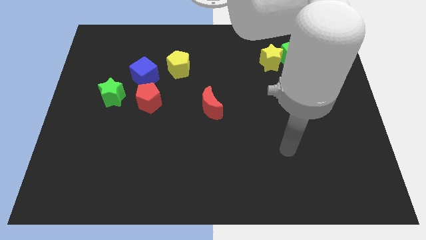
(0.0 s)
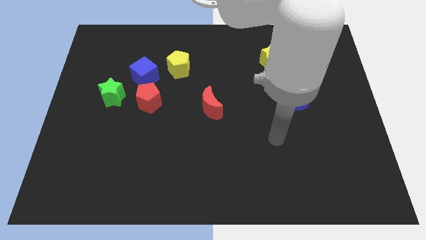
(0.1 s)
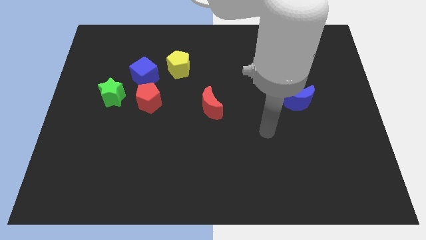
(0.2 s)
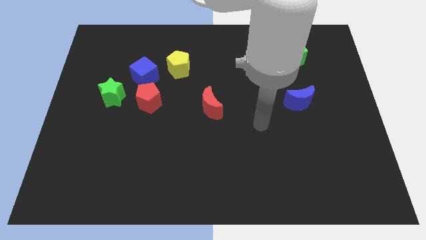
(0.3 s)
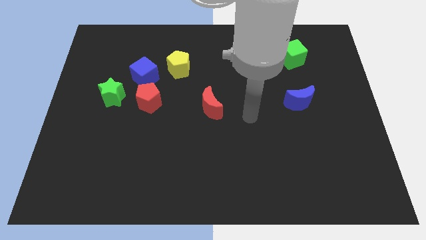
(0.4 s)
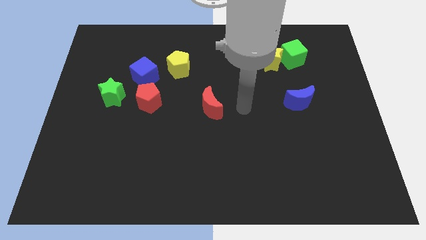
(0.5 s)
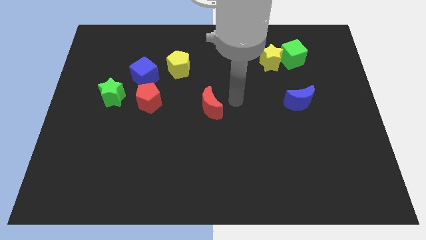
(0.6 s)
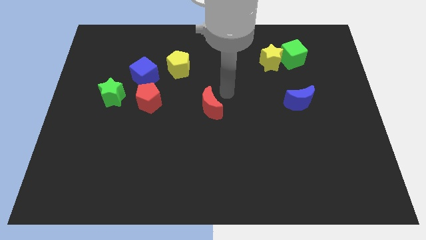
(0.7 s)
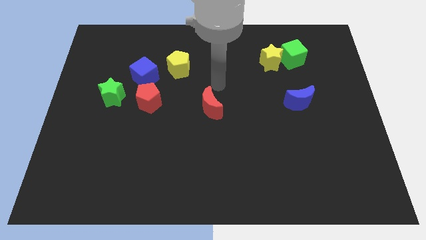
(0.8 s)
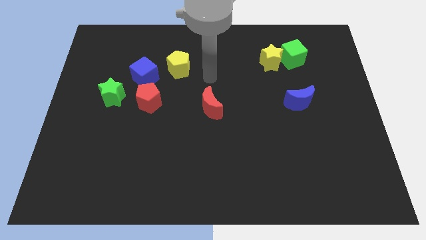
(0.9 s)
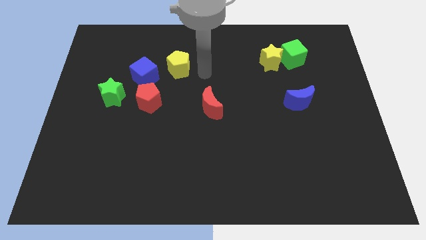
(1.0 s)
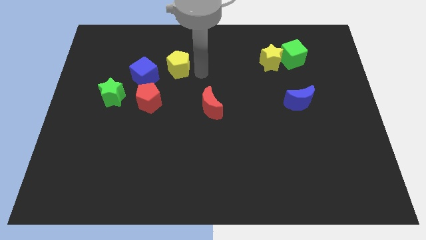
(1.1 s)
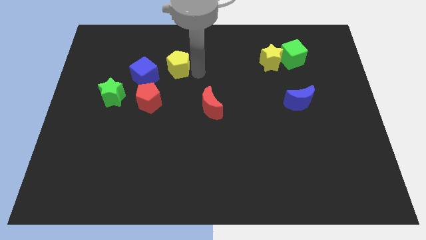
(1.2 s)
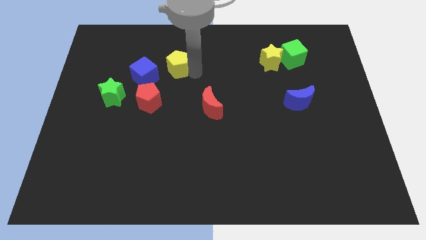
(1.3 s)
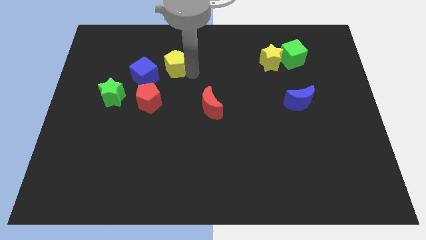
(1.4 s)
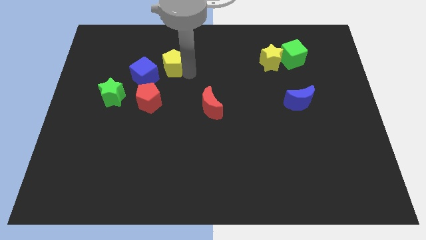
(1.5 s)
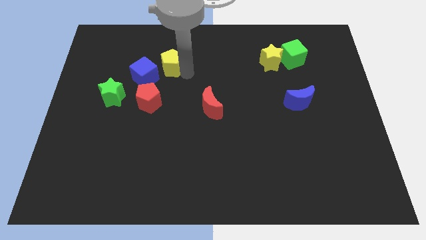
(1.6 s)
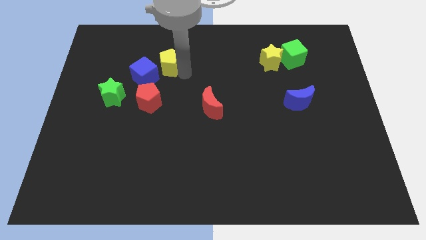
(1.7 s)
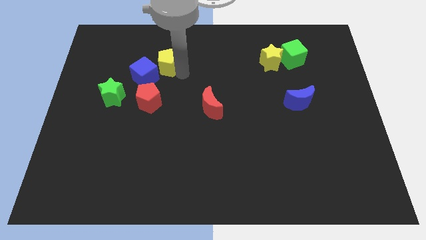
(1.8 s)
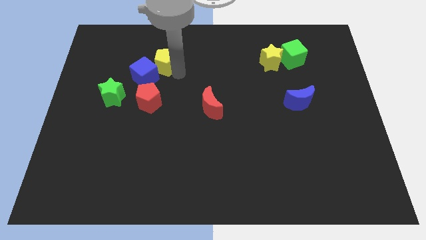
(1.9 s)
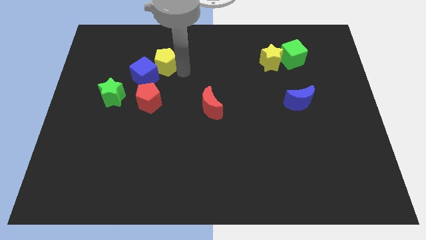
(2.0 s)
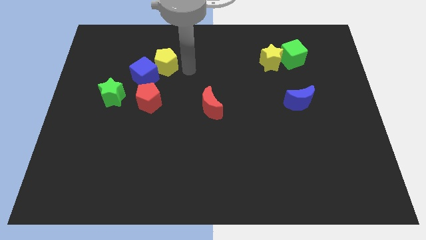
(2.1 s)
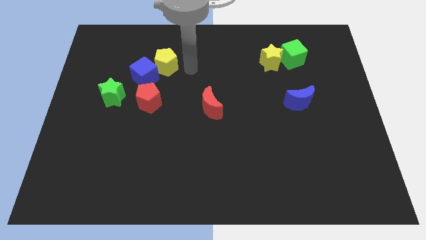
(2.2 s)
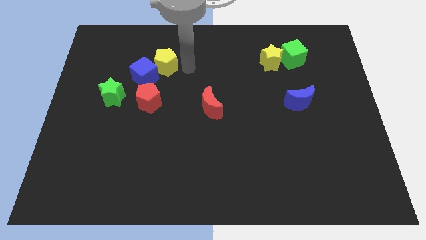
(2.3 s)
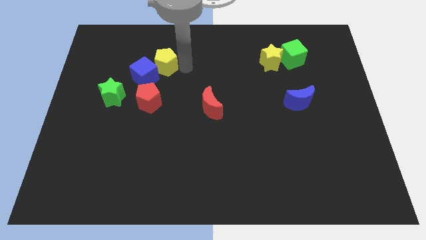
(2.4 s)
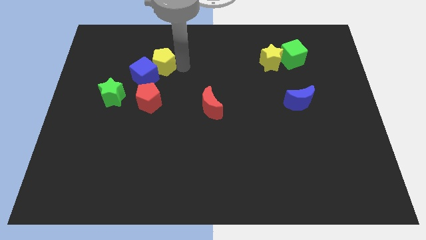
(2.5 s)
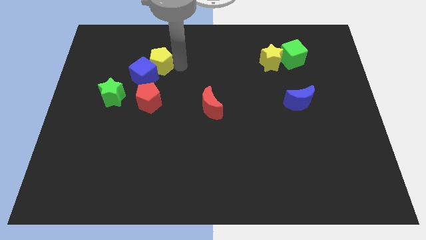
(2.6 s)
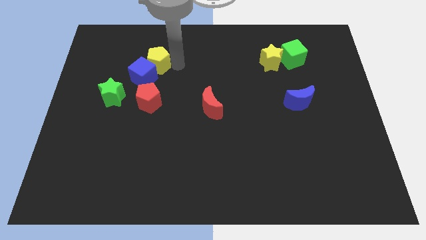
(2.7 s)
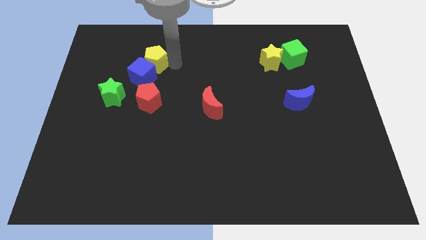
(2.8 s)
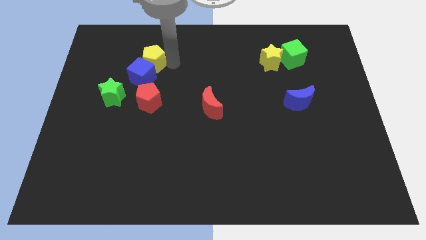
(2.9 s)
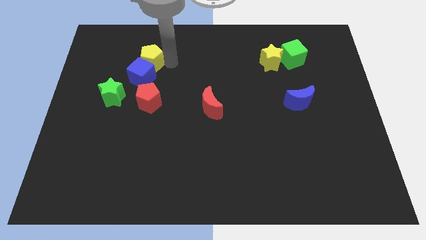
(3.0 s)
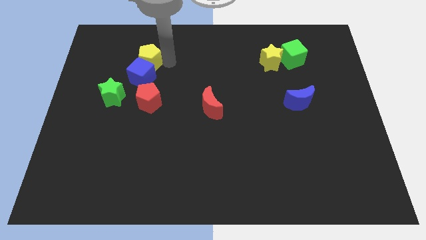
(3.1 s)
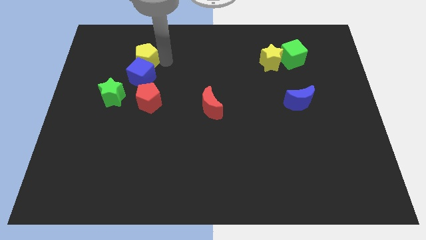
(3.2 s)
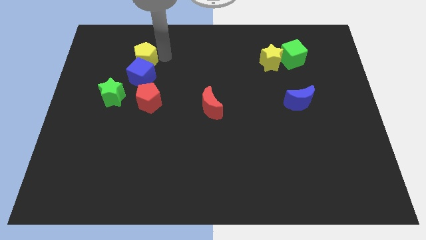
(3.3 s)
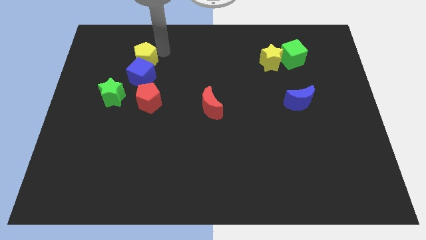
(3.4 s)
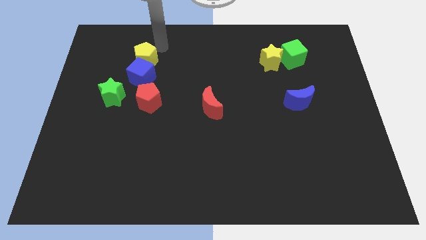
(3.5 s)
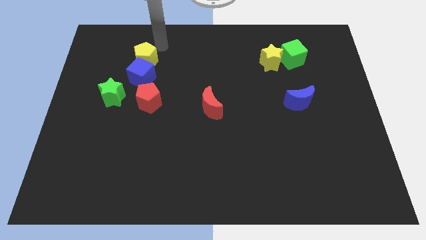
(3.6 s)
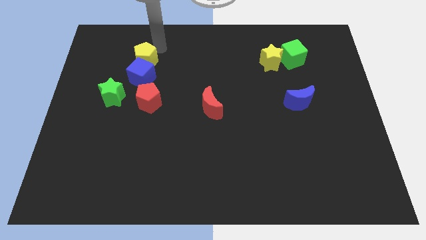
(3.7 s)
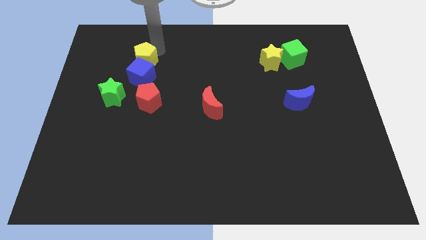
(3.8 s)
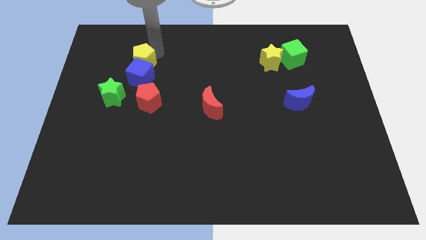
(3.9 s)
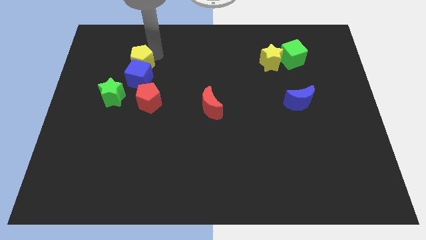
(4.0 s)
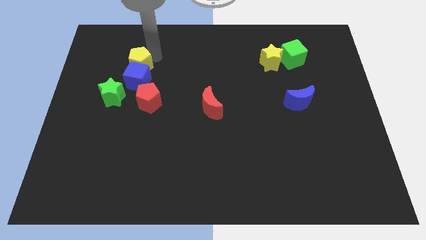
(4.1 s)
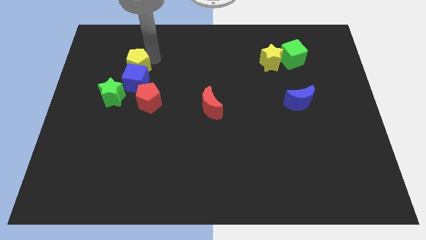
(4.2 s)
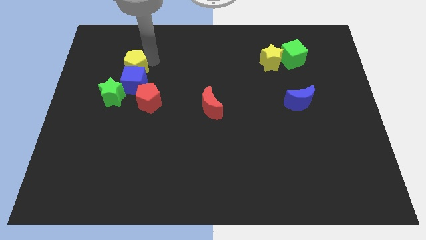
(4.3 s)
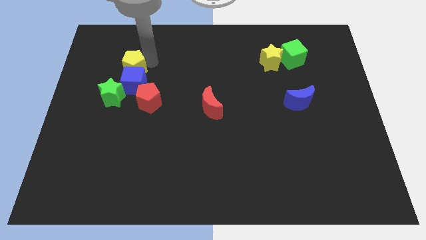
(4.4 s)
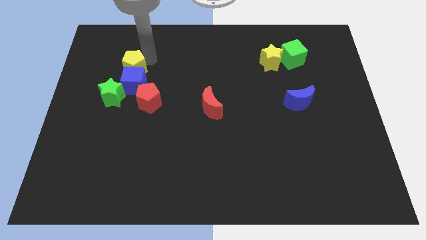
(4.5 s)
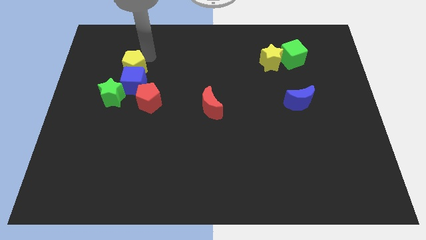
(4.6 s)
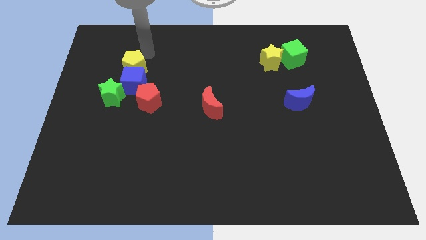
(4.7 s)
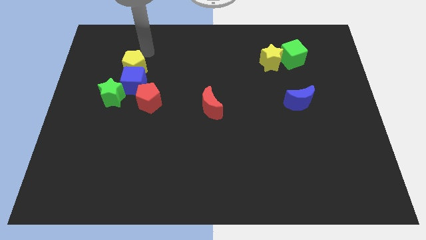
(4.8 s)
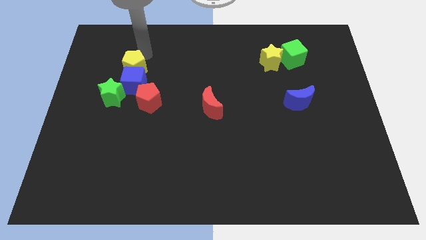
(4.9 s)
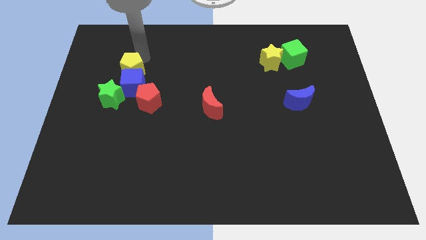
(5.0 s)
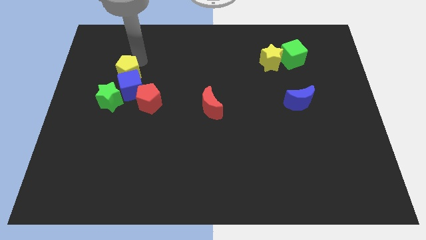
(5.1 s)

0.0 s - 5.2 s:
move the yellow pentagon downwards and to the left somewhat

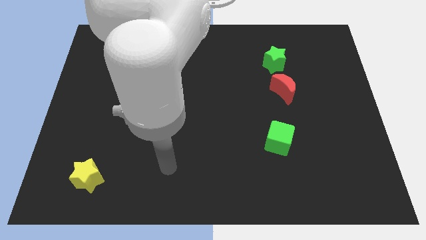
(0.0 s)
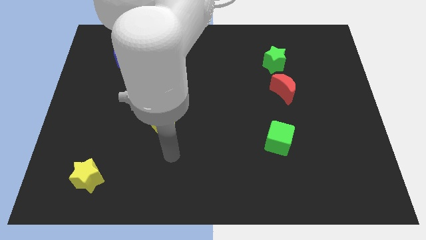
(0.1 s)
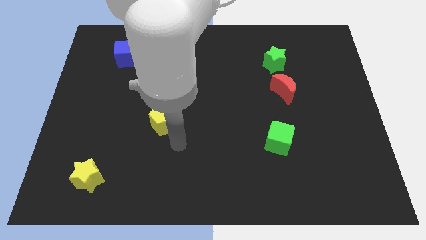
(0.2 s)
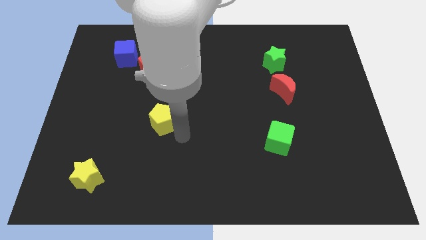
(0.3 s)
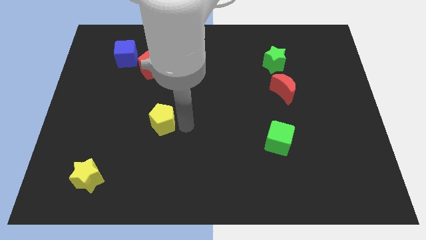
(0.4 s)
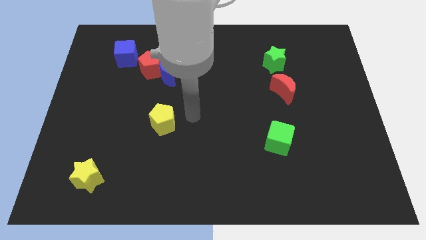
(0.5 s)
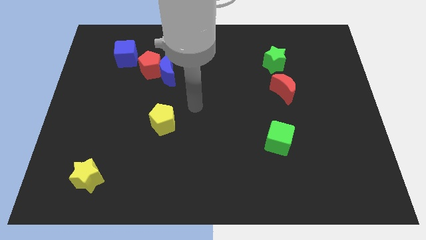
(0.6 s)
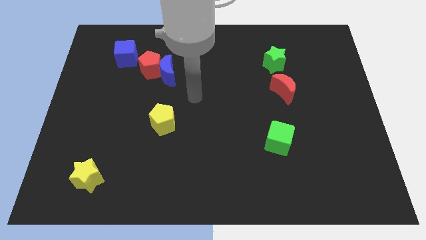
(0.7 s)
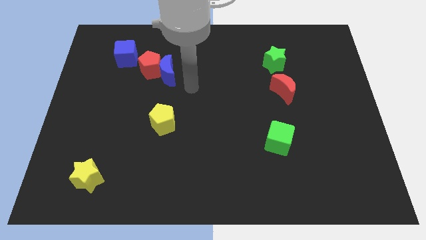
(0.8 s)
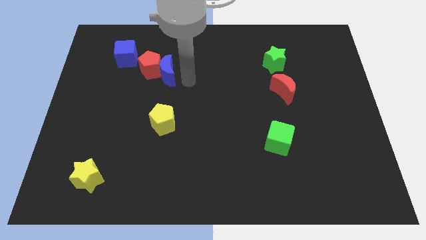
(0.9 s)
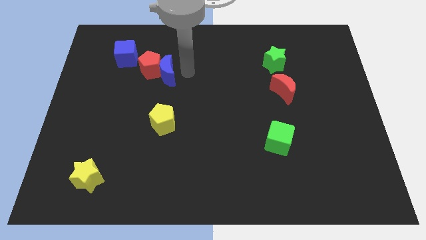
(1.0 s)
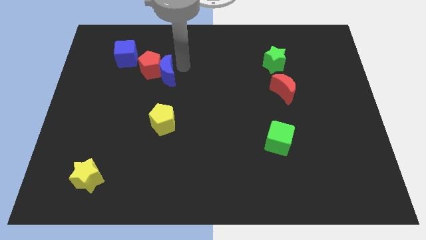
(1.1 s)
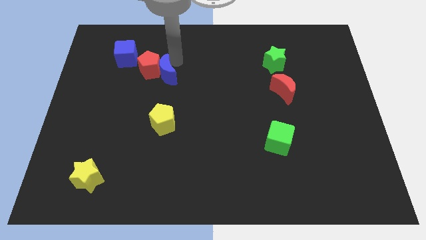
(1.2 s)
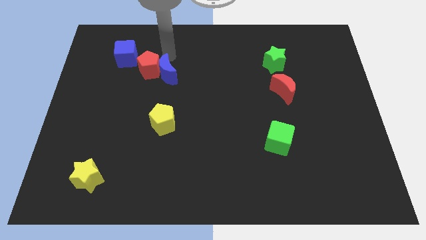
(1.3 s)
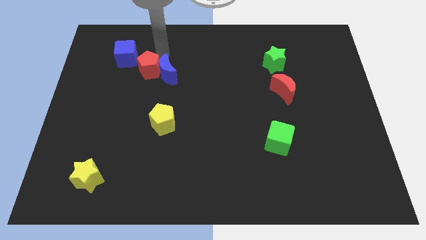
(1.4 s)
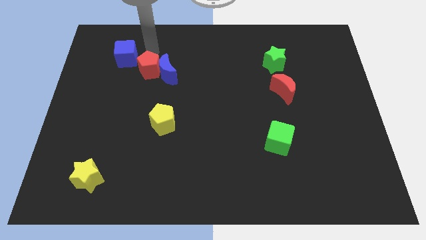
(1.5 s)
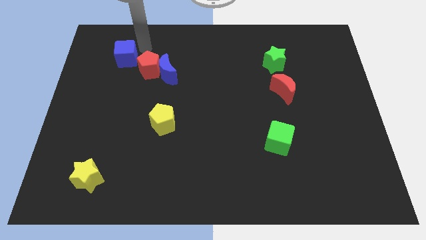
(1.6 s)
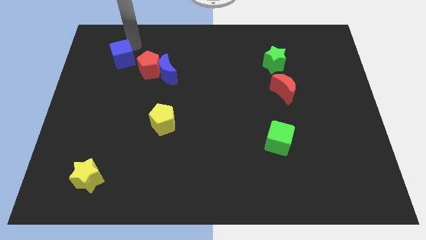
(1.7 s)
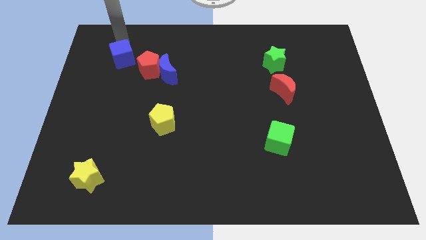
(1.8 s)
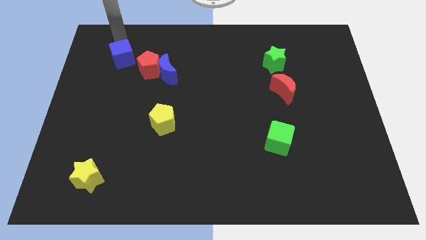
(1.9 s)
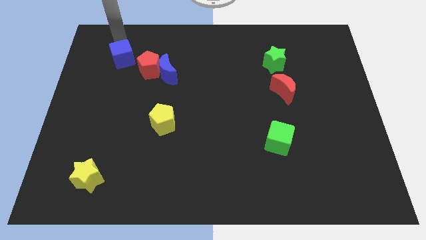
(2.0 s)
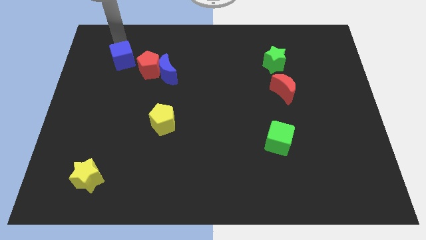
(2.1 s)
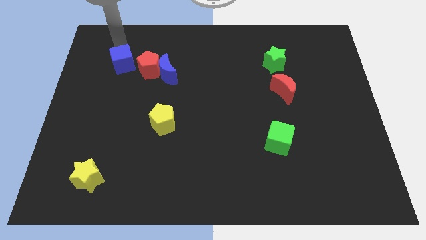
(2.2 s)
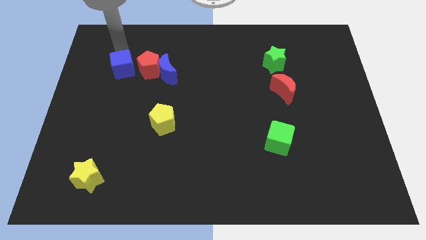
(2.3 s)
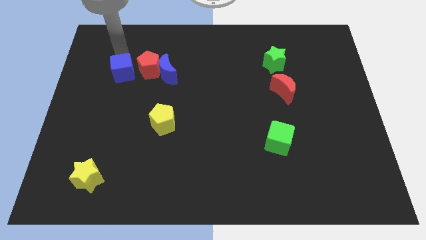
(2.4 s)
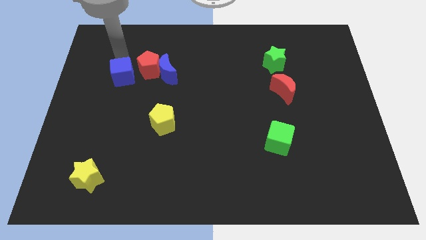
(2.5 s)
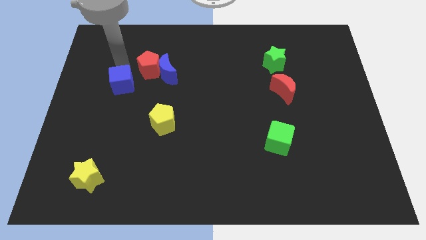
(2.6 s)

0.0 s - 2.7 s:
move the blue cube a little bit downwards
